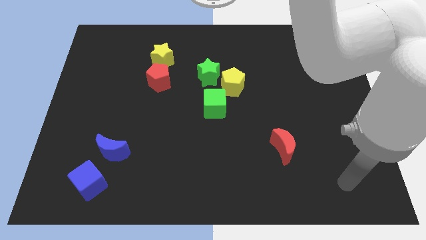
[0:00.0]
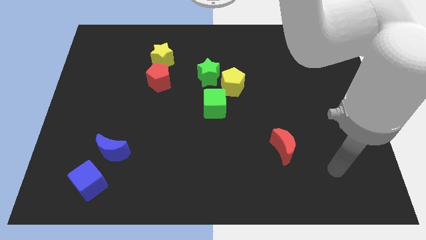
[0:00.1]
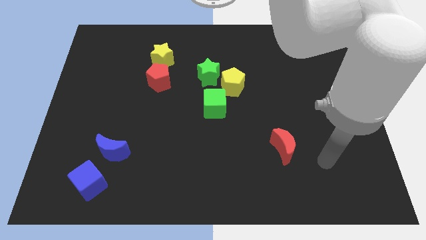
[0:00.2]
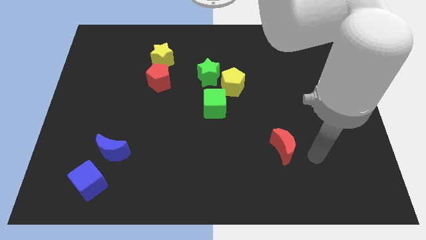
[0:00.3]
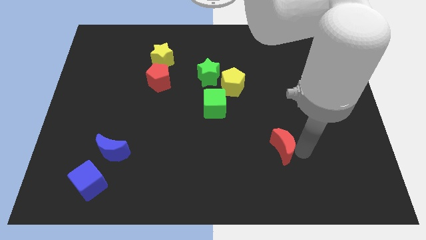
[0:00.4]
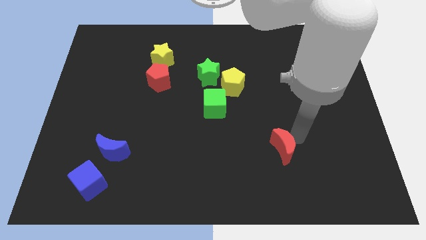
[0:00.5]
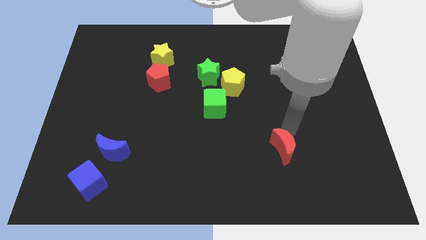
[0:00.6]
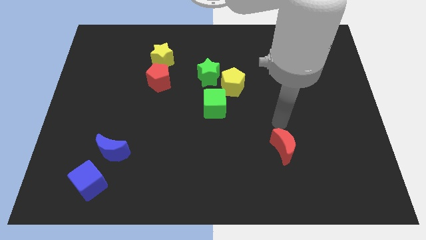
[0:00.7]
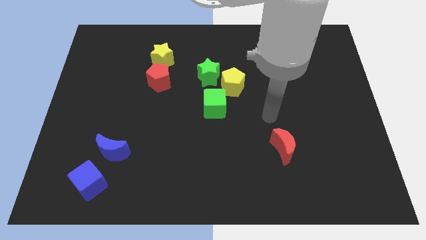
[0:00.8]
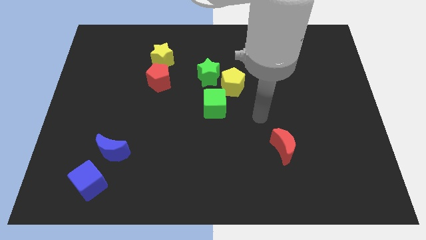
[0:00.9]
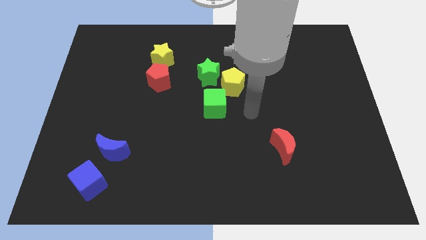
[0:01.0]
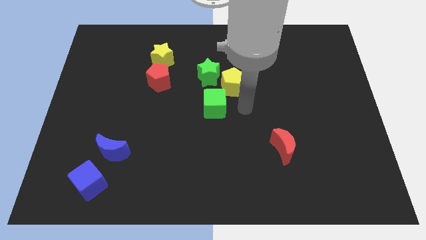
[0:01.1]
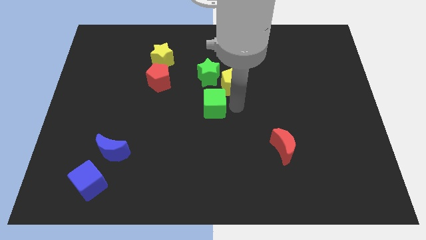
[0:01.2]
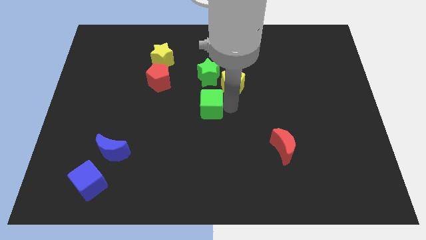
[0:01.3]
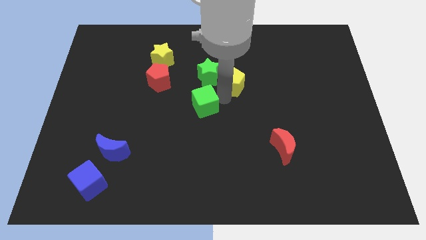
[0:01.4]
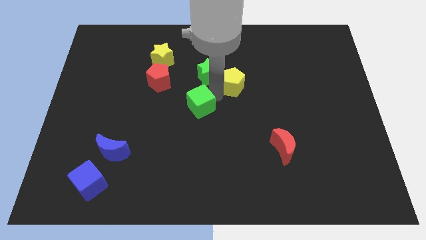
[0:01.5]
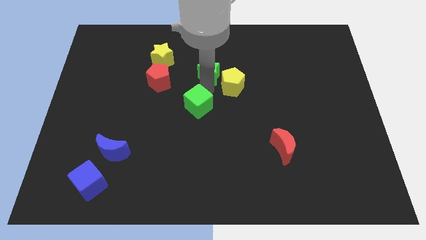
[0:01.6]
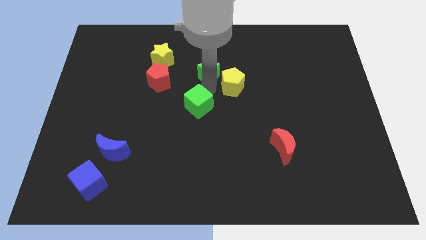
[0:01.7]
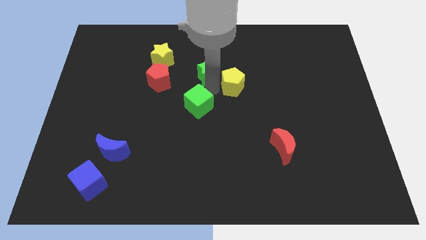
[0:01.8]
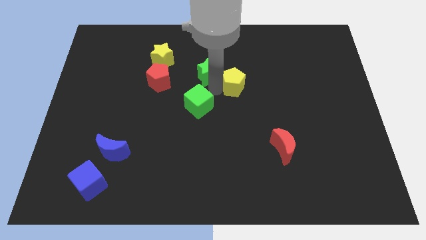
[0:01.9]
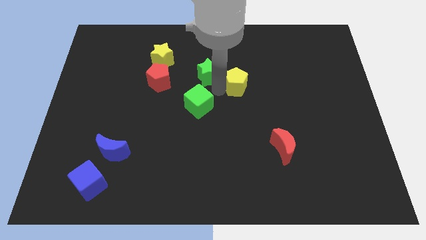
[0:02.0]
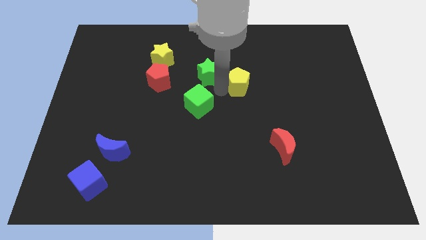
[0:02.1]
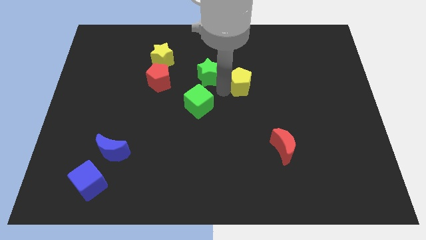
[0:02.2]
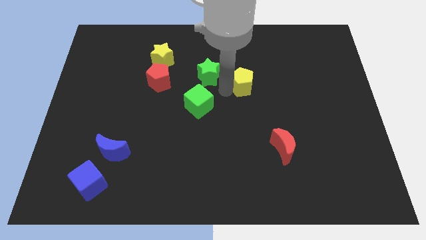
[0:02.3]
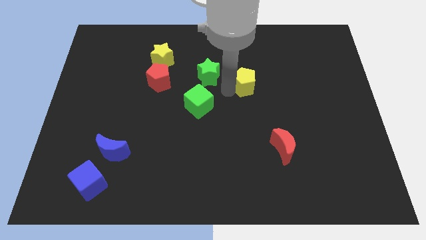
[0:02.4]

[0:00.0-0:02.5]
move the yellow pentagon away from the green star and green cube

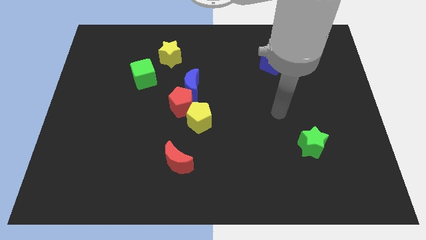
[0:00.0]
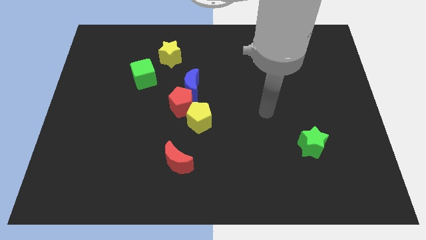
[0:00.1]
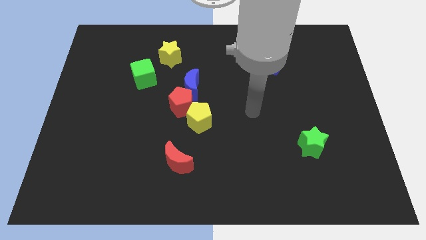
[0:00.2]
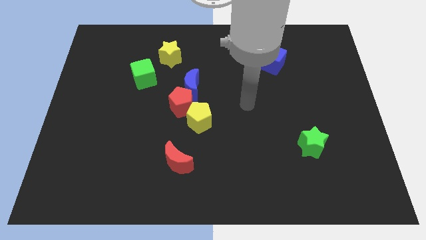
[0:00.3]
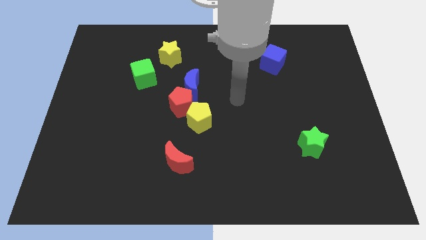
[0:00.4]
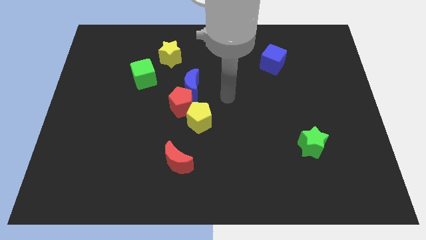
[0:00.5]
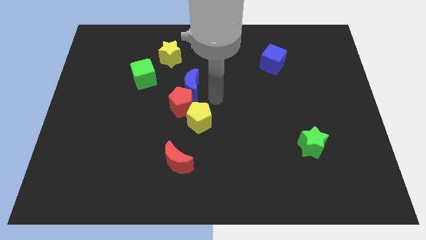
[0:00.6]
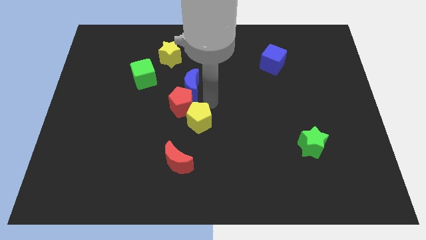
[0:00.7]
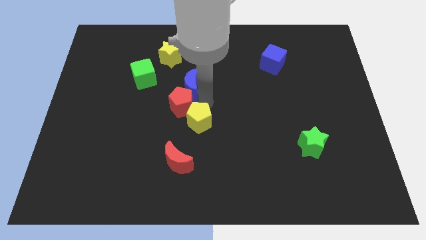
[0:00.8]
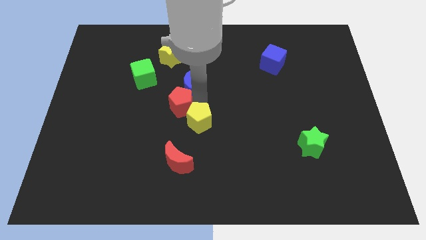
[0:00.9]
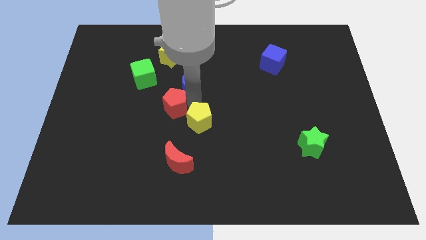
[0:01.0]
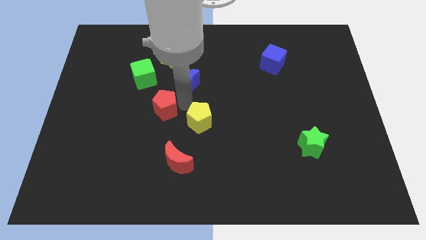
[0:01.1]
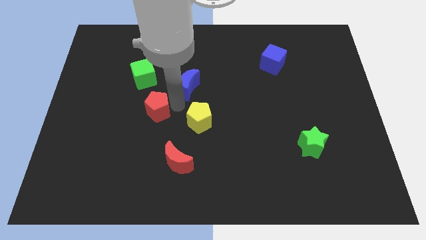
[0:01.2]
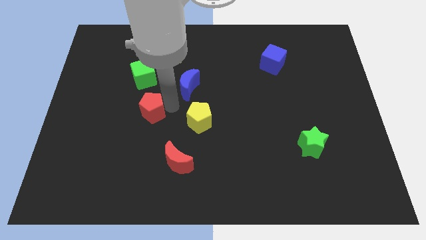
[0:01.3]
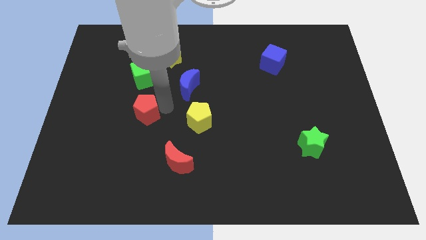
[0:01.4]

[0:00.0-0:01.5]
move the red pentagon away from the blue moon and yellow pentagon

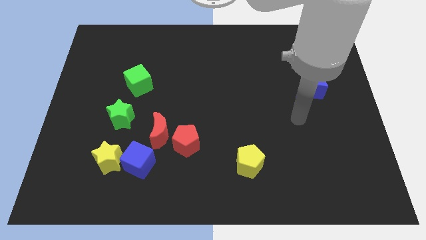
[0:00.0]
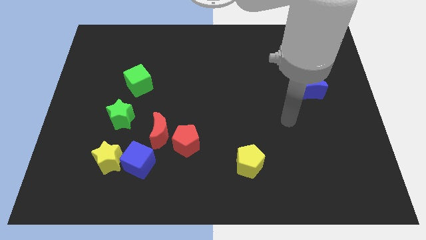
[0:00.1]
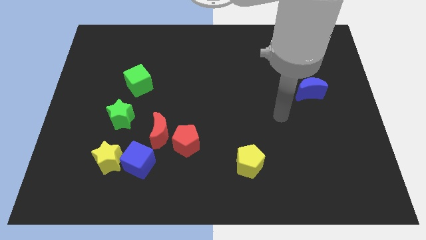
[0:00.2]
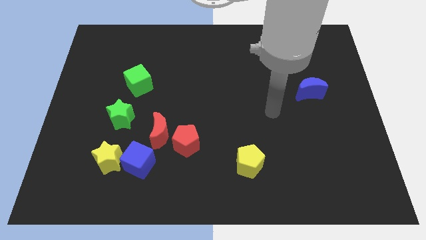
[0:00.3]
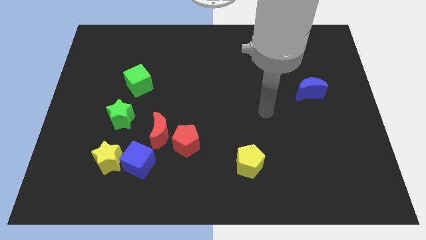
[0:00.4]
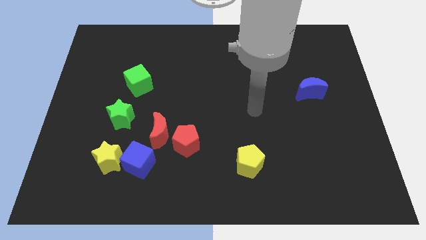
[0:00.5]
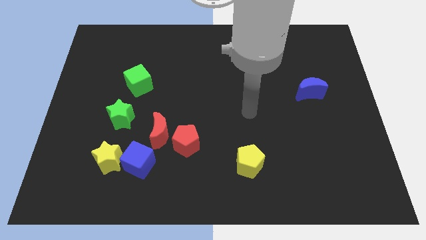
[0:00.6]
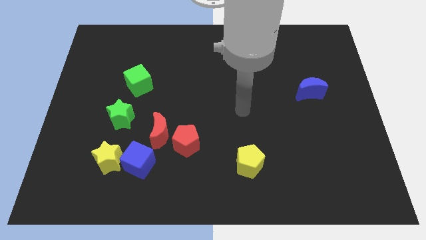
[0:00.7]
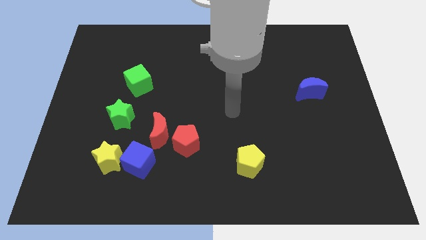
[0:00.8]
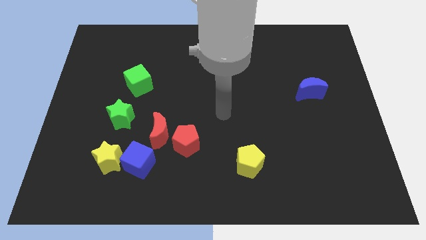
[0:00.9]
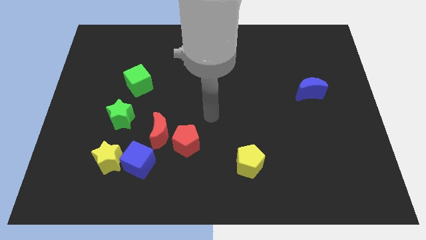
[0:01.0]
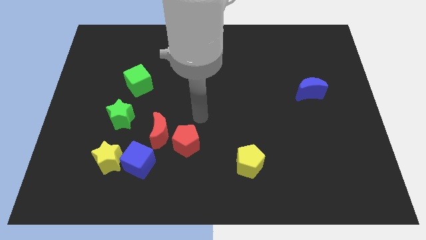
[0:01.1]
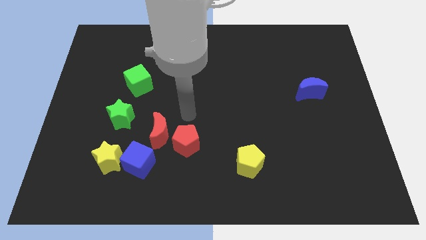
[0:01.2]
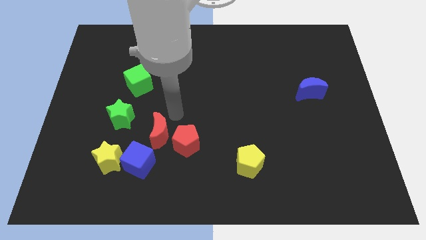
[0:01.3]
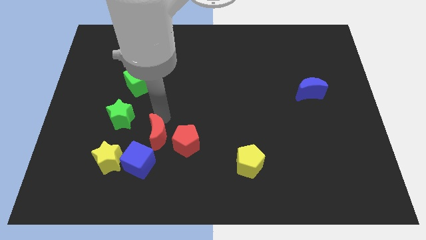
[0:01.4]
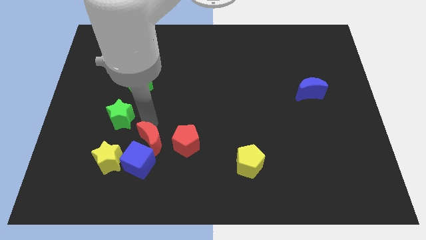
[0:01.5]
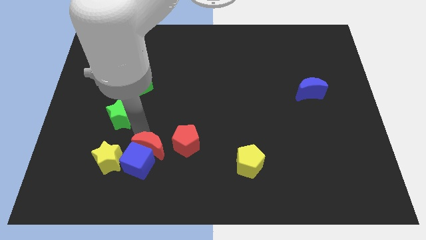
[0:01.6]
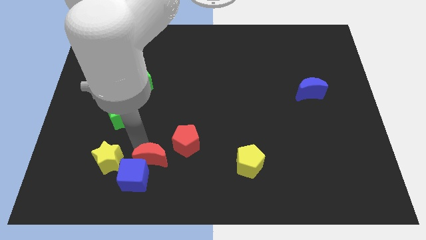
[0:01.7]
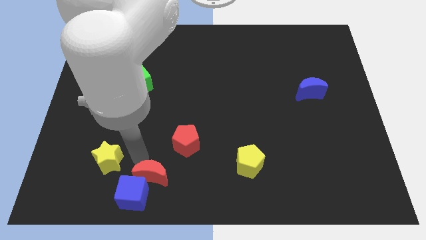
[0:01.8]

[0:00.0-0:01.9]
move the yellow star away from the blue cube

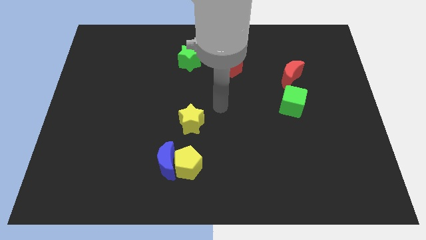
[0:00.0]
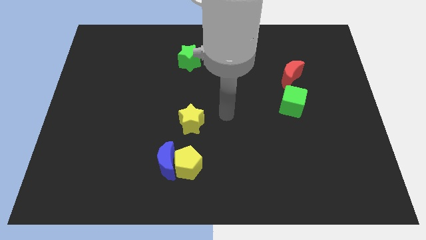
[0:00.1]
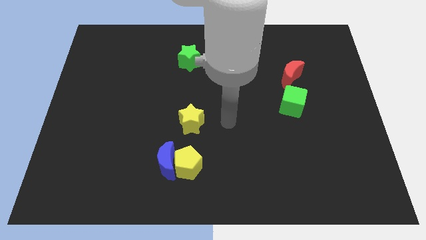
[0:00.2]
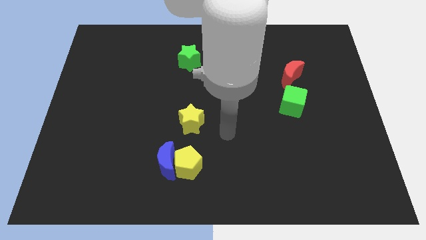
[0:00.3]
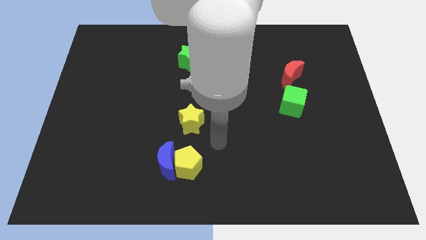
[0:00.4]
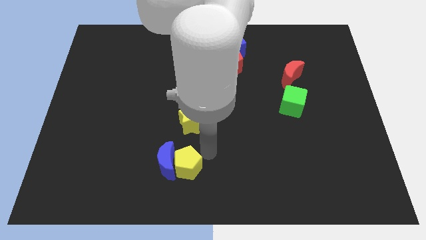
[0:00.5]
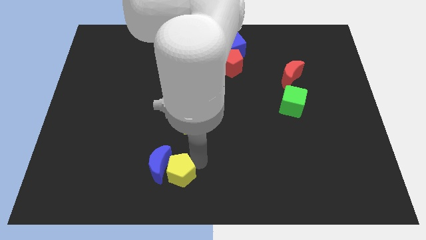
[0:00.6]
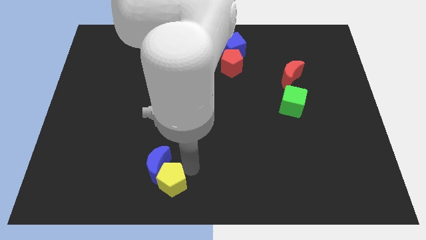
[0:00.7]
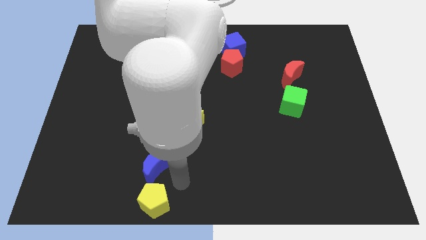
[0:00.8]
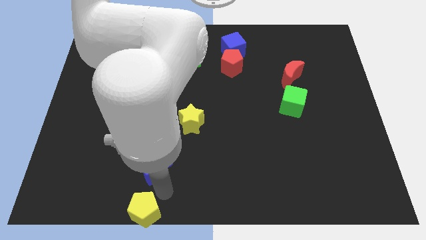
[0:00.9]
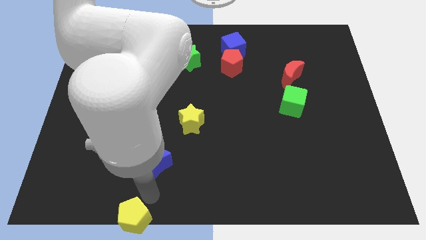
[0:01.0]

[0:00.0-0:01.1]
separate the blue moon from the yellow pentagon

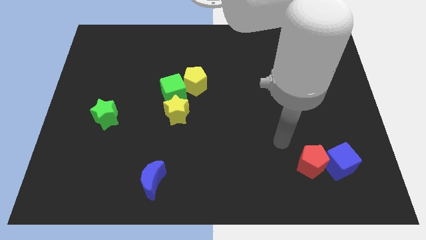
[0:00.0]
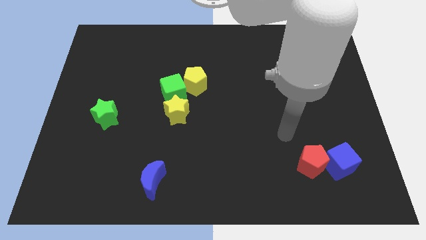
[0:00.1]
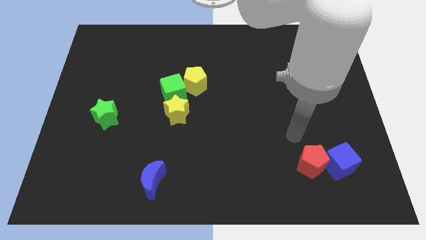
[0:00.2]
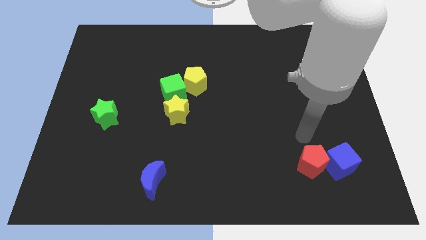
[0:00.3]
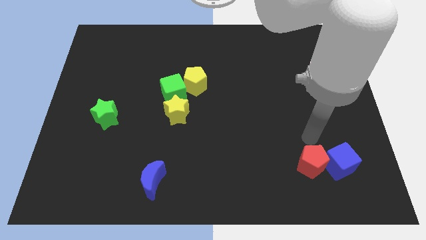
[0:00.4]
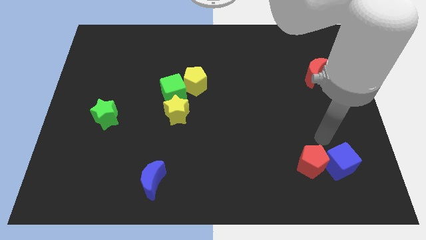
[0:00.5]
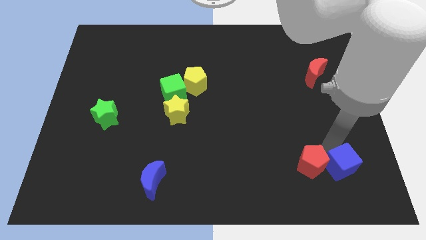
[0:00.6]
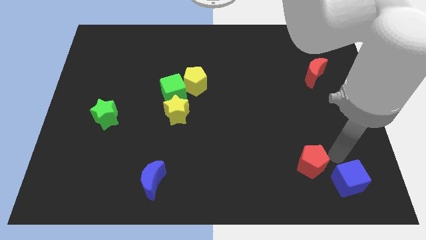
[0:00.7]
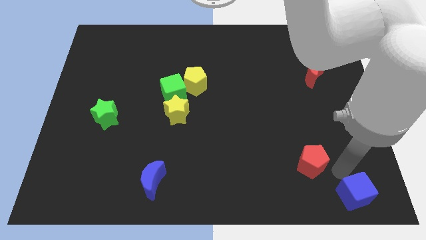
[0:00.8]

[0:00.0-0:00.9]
move the red pentagon away from the blue cube

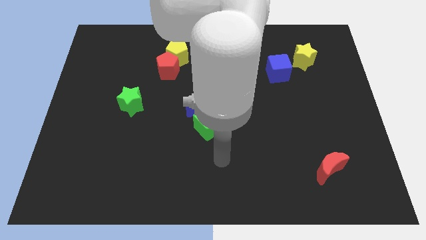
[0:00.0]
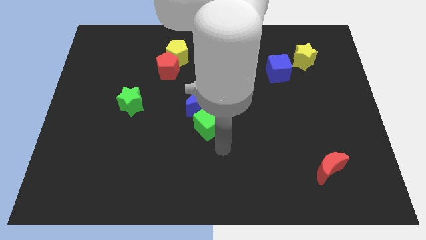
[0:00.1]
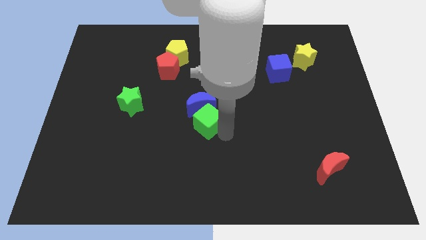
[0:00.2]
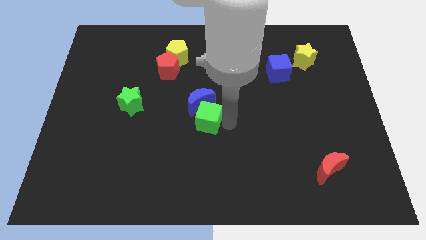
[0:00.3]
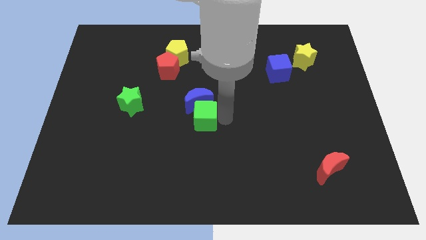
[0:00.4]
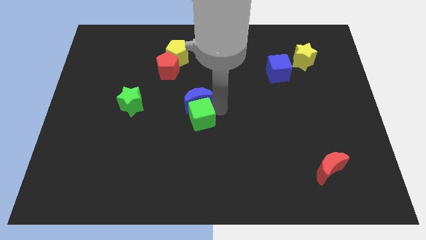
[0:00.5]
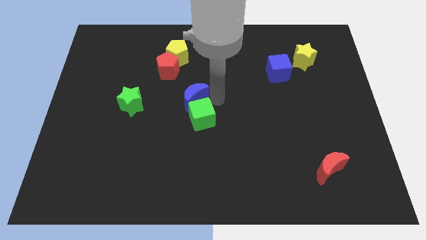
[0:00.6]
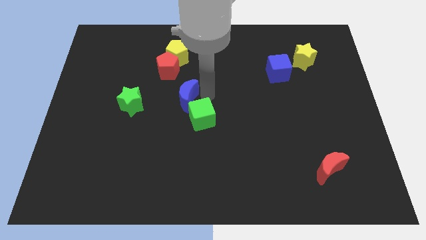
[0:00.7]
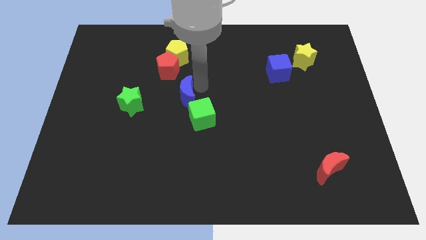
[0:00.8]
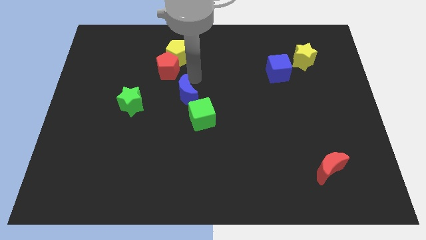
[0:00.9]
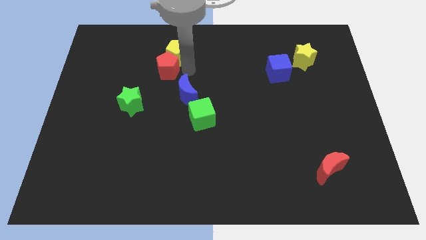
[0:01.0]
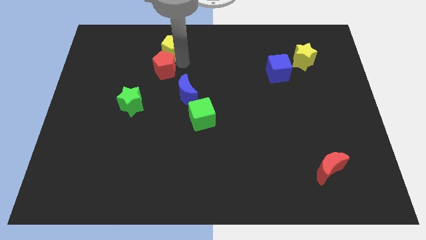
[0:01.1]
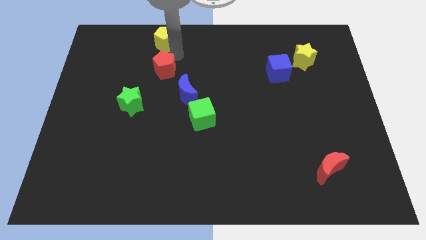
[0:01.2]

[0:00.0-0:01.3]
move the red pentagon away from the yellow pentagon

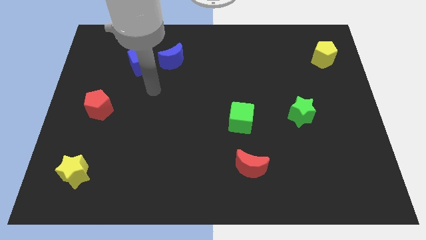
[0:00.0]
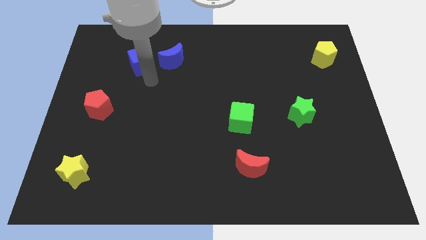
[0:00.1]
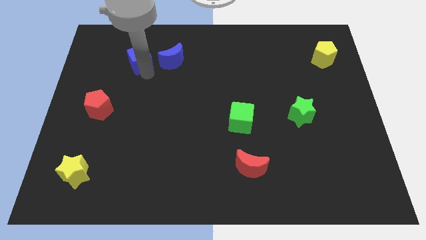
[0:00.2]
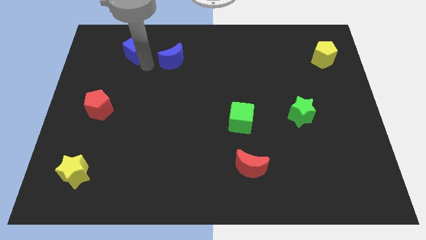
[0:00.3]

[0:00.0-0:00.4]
pull the blue moon apart from the blue cube
